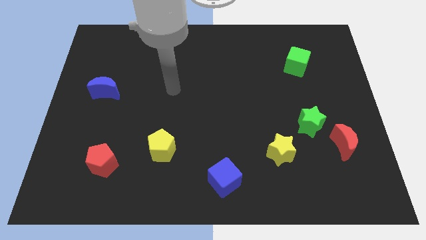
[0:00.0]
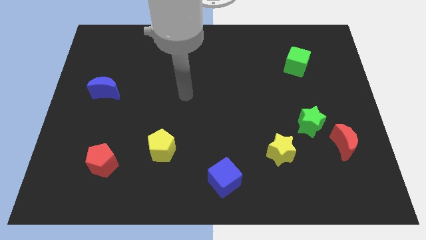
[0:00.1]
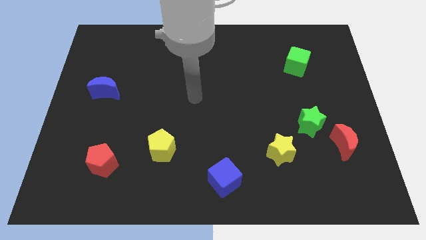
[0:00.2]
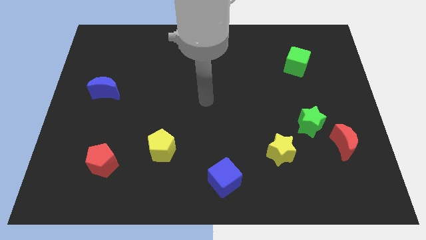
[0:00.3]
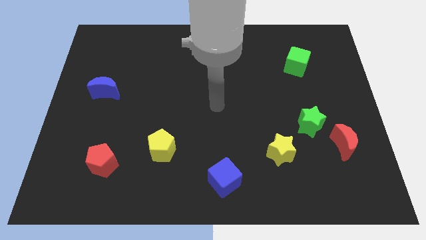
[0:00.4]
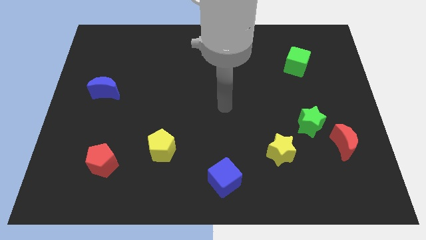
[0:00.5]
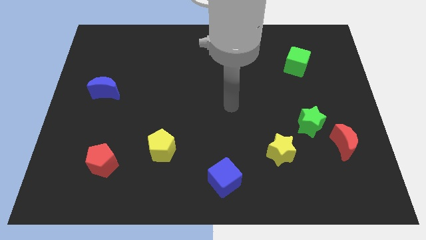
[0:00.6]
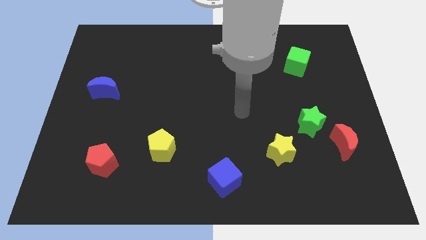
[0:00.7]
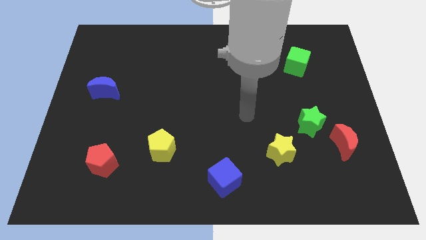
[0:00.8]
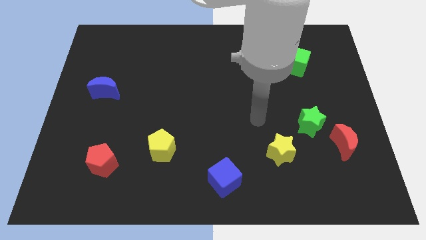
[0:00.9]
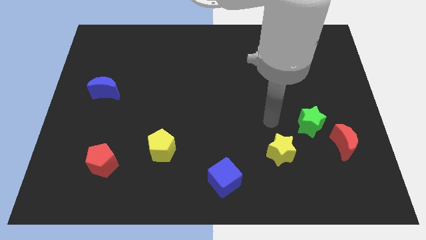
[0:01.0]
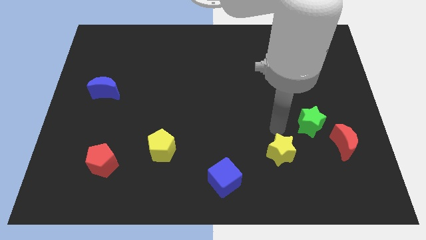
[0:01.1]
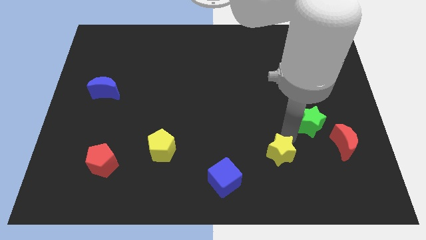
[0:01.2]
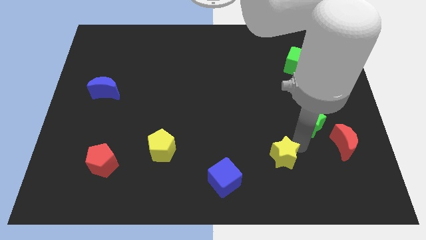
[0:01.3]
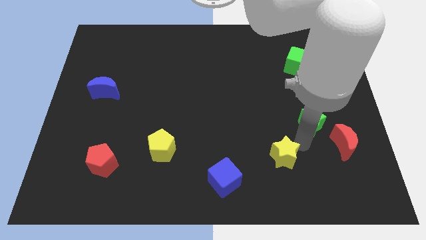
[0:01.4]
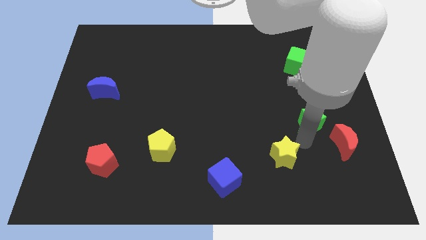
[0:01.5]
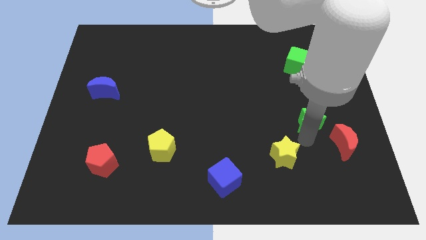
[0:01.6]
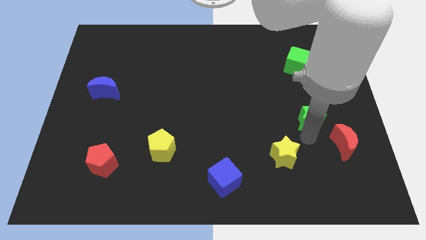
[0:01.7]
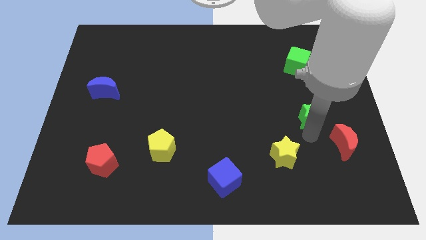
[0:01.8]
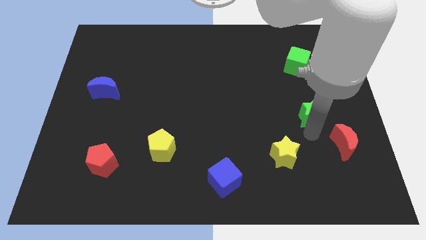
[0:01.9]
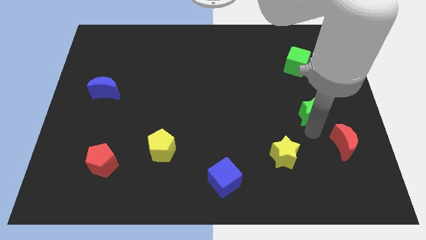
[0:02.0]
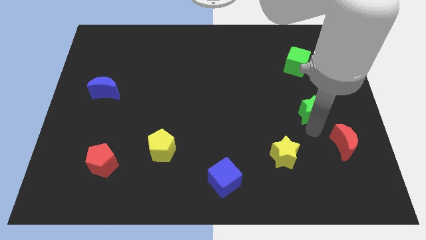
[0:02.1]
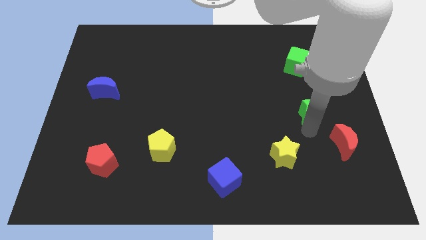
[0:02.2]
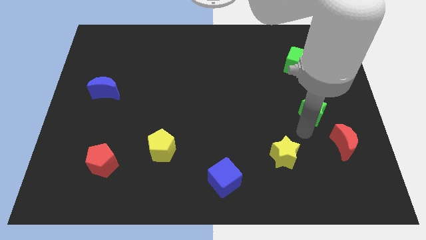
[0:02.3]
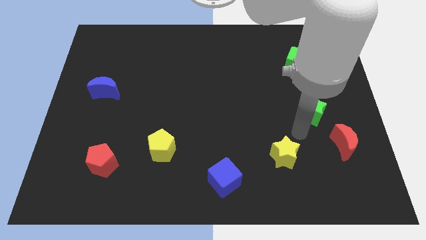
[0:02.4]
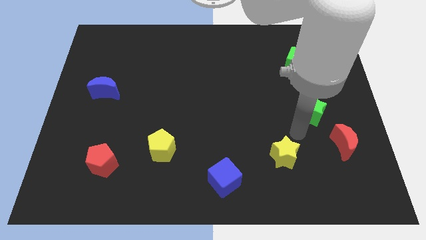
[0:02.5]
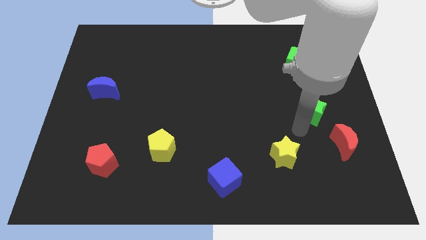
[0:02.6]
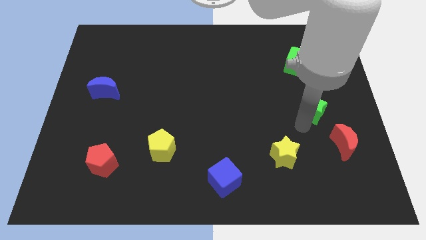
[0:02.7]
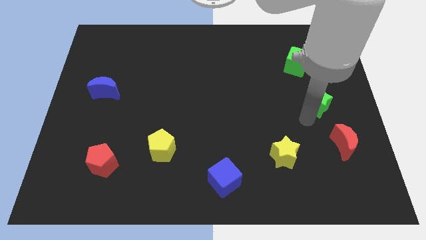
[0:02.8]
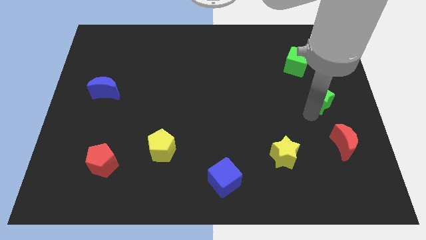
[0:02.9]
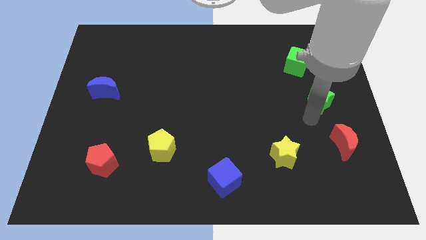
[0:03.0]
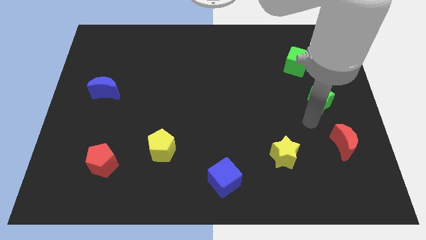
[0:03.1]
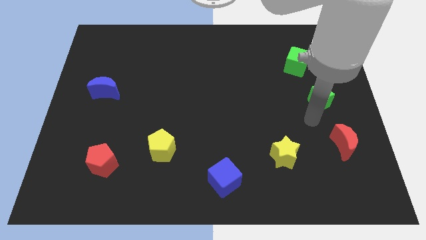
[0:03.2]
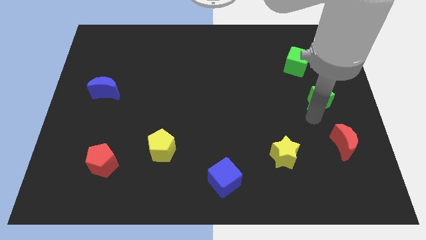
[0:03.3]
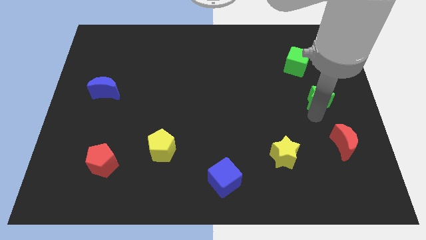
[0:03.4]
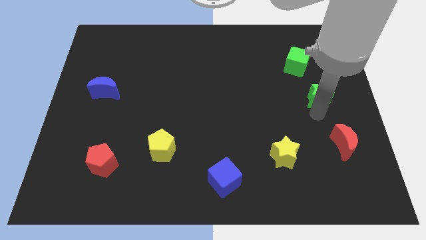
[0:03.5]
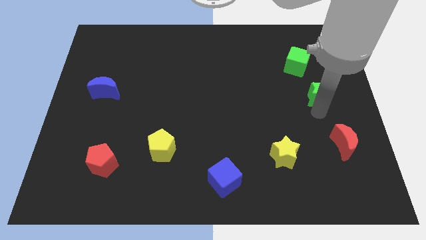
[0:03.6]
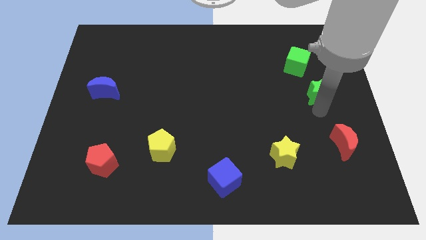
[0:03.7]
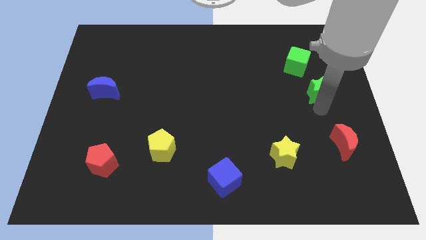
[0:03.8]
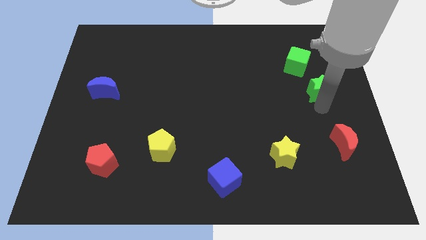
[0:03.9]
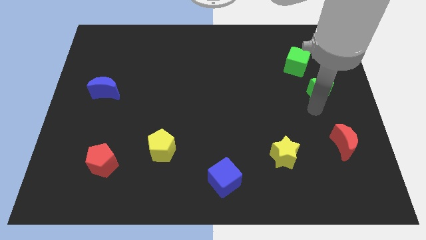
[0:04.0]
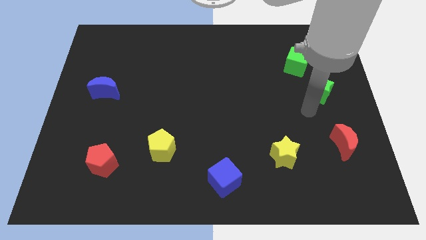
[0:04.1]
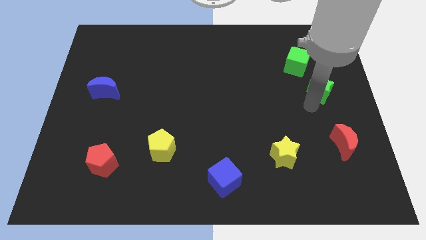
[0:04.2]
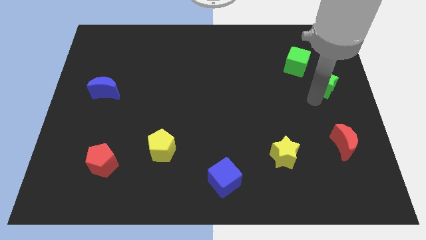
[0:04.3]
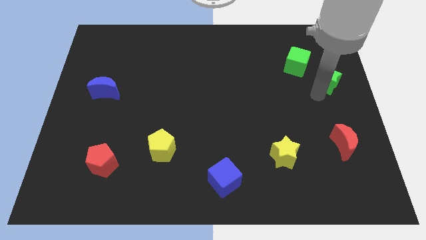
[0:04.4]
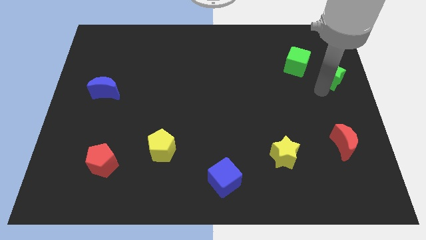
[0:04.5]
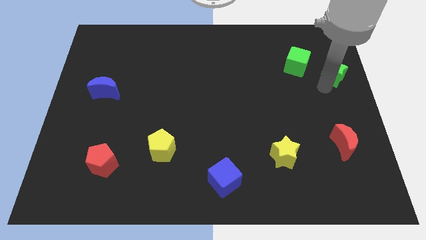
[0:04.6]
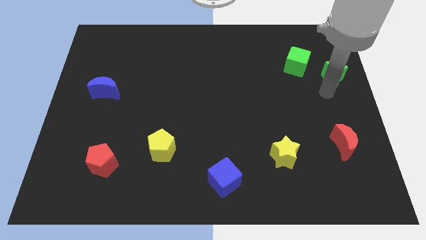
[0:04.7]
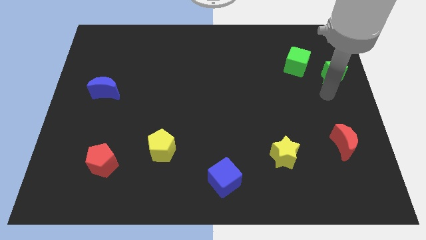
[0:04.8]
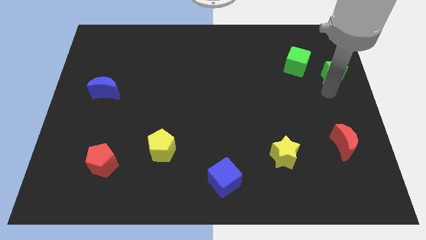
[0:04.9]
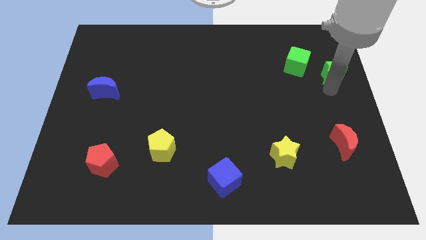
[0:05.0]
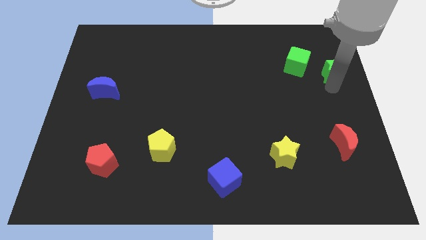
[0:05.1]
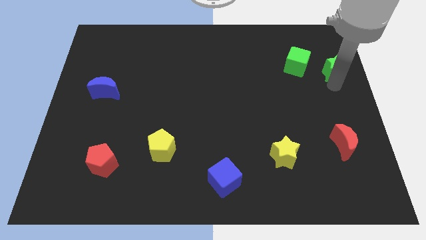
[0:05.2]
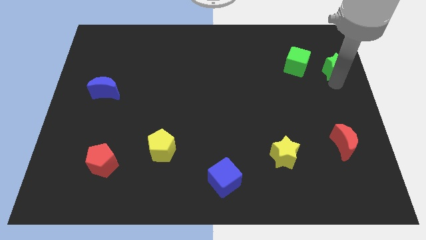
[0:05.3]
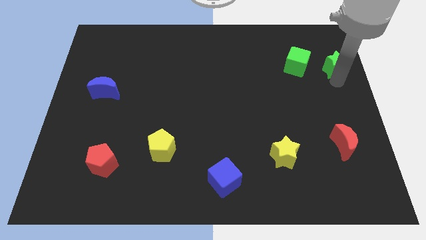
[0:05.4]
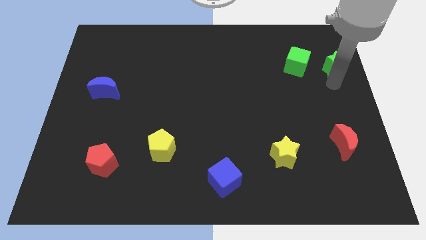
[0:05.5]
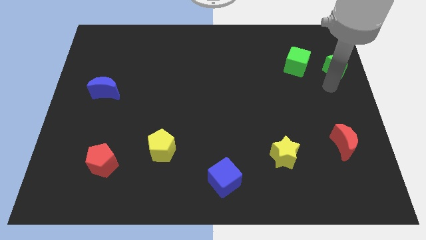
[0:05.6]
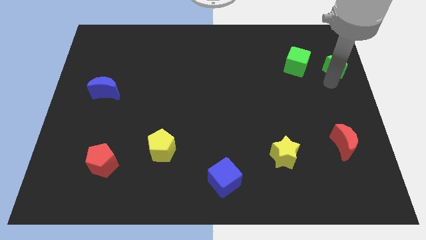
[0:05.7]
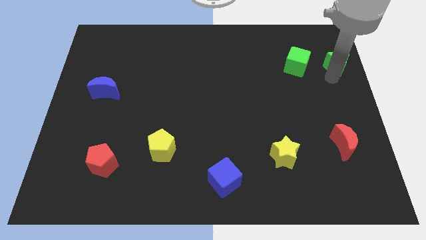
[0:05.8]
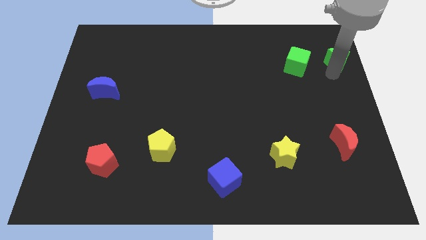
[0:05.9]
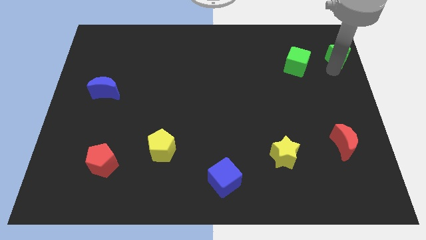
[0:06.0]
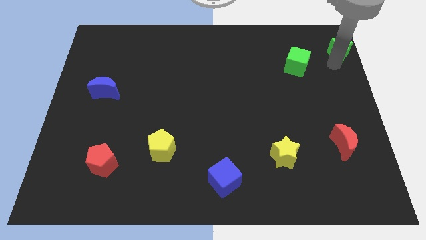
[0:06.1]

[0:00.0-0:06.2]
slide the green star to the top right
